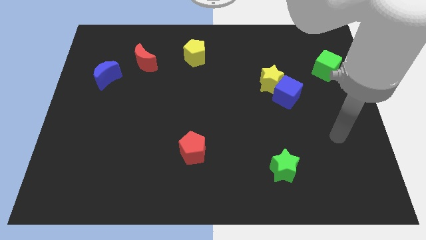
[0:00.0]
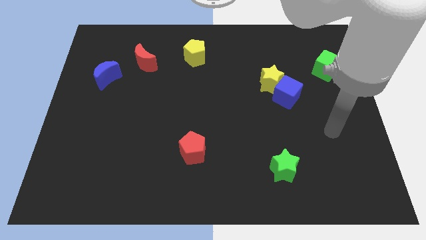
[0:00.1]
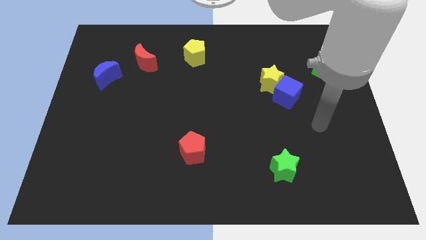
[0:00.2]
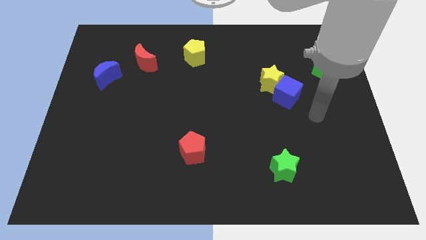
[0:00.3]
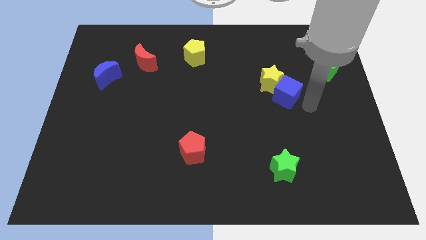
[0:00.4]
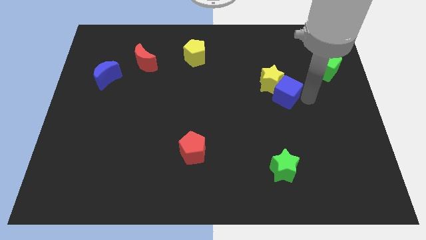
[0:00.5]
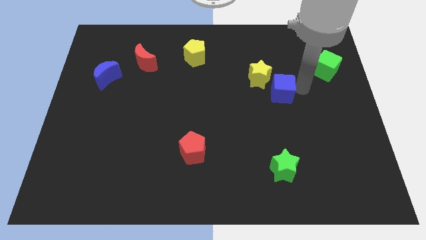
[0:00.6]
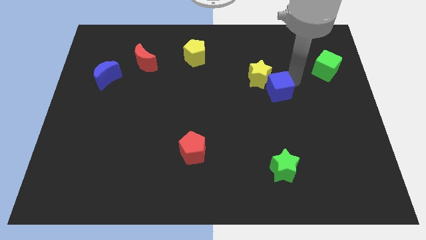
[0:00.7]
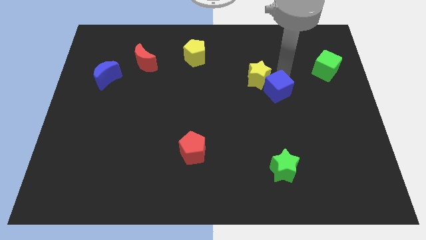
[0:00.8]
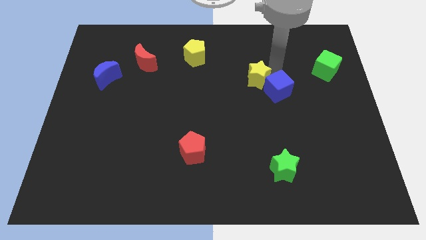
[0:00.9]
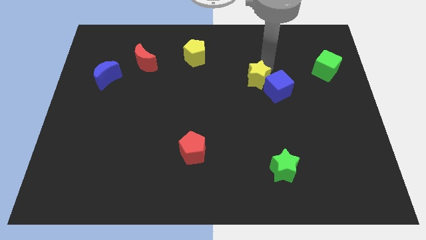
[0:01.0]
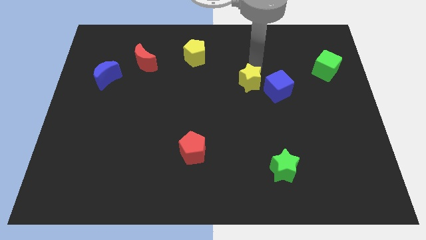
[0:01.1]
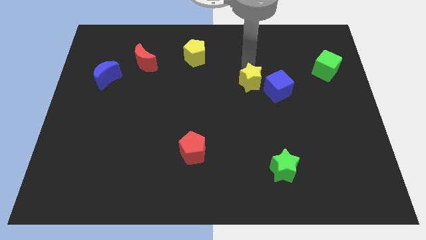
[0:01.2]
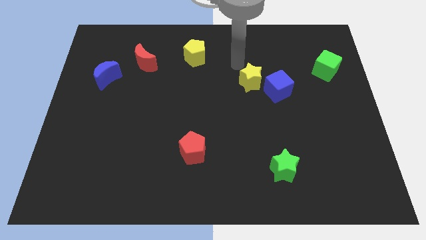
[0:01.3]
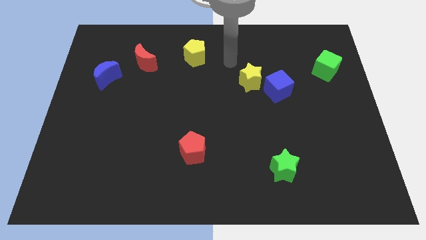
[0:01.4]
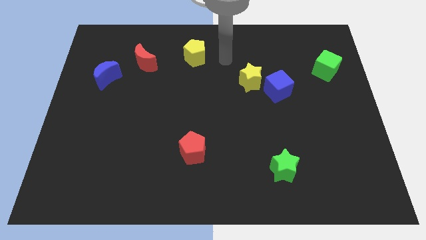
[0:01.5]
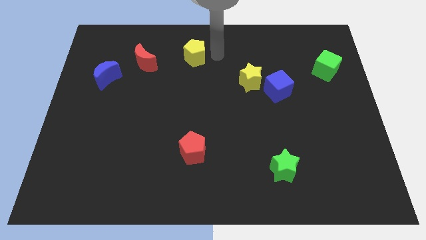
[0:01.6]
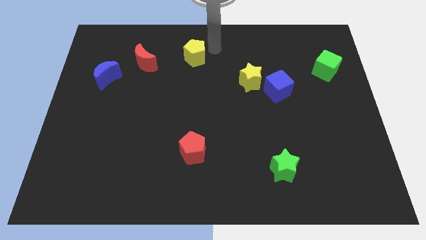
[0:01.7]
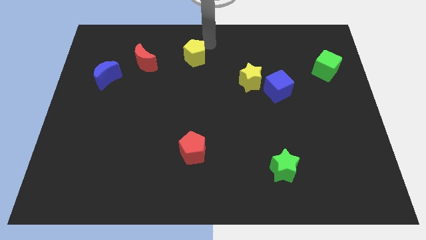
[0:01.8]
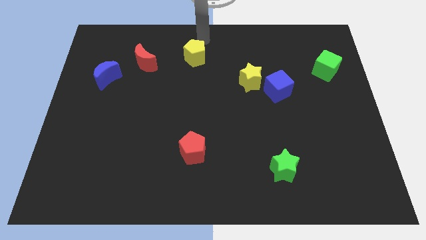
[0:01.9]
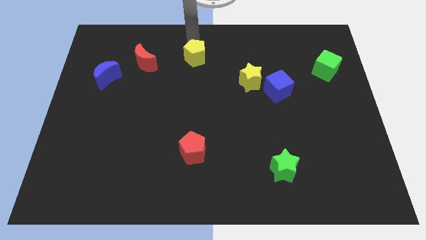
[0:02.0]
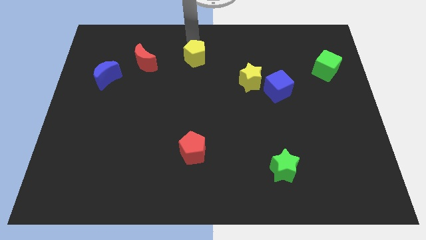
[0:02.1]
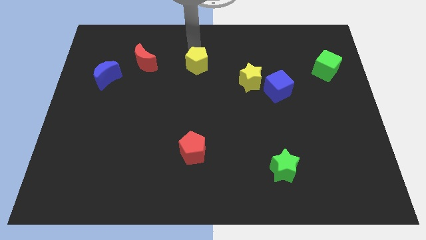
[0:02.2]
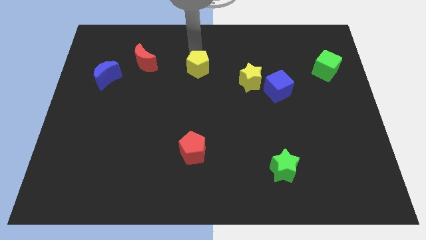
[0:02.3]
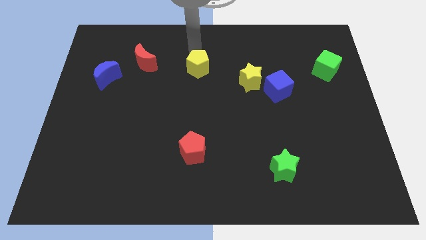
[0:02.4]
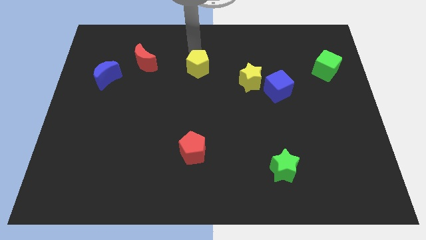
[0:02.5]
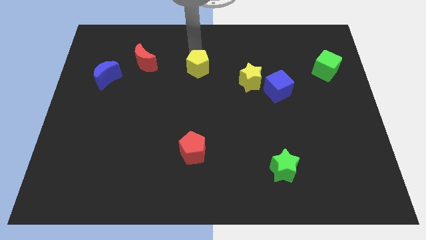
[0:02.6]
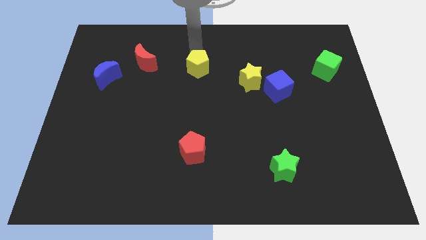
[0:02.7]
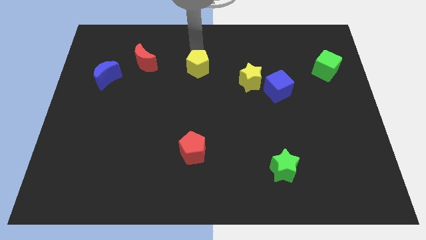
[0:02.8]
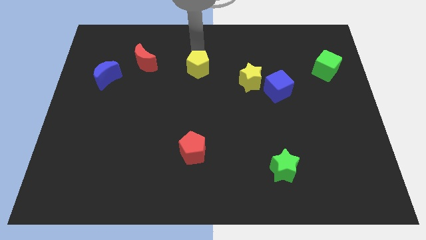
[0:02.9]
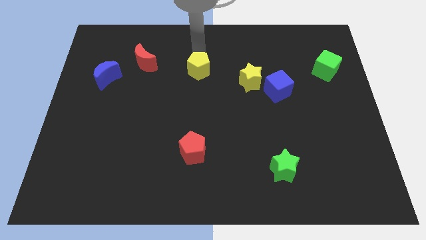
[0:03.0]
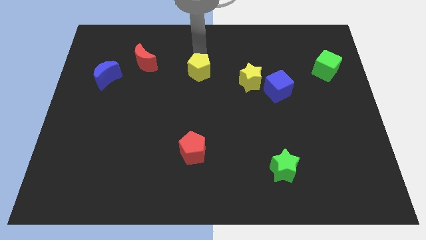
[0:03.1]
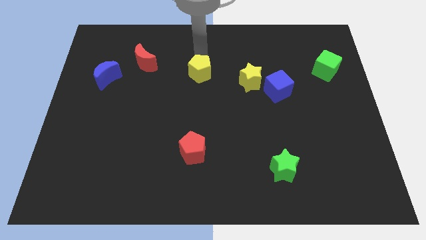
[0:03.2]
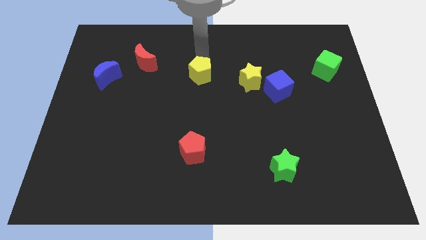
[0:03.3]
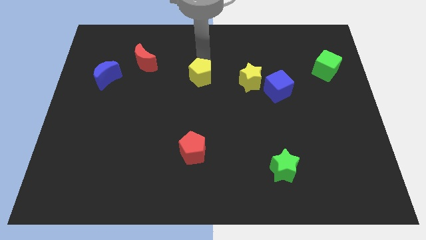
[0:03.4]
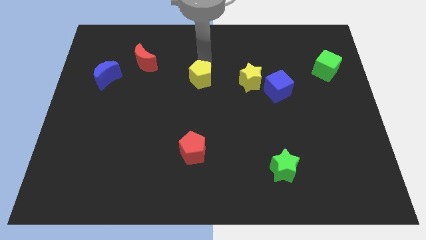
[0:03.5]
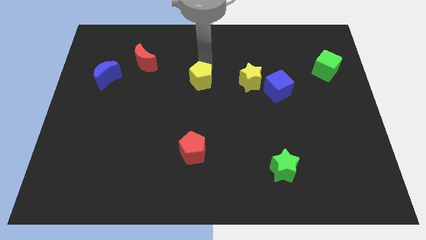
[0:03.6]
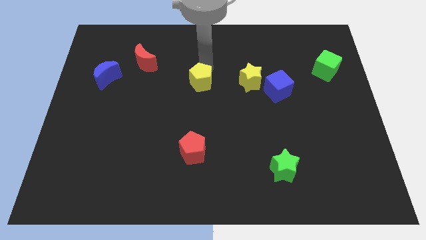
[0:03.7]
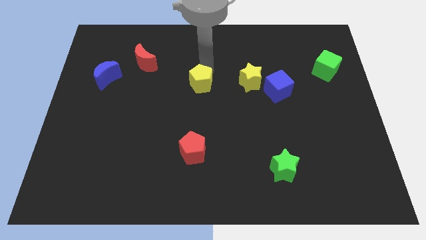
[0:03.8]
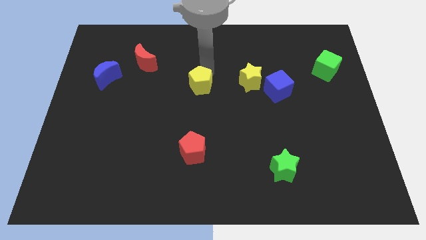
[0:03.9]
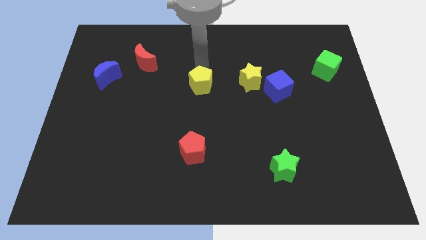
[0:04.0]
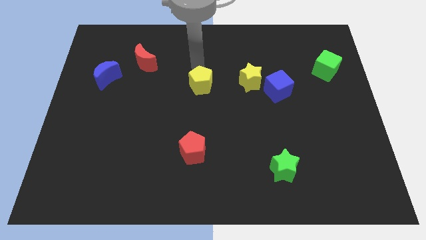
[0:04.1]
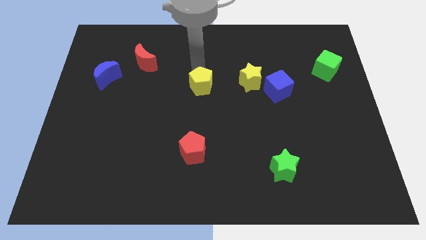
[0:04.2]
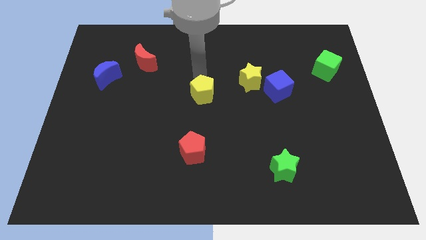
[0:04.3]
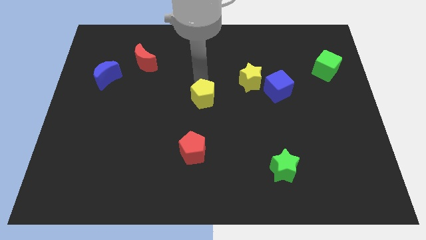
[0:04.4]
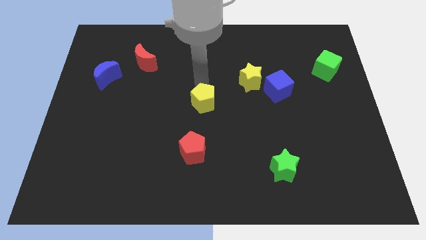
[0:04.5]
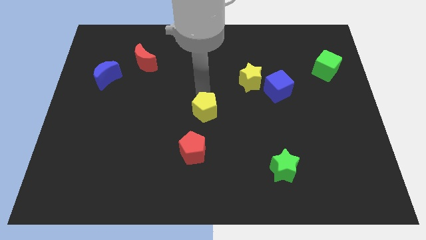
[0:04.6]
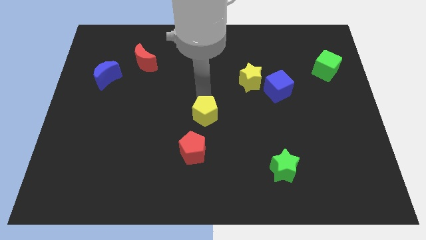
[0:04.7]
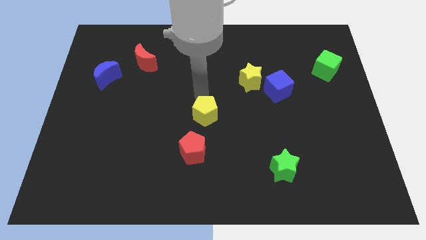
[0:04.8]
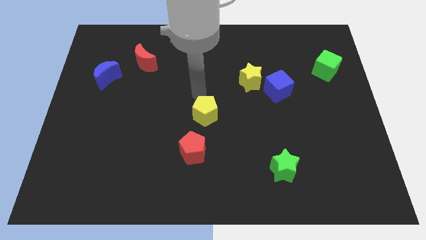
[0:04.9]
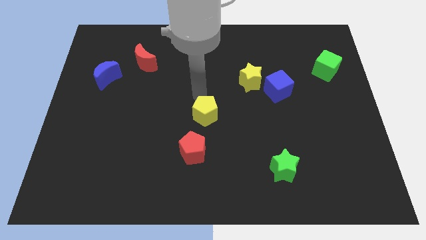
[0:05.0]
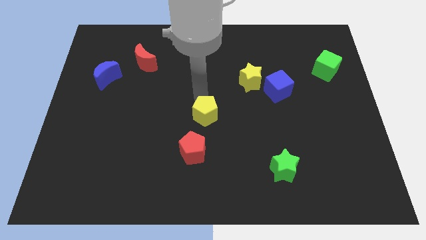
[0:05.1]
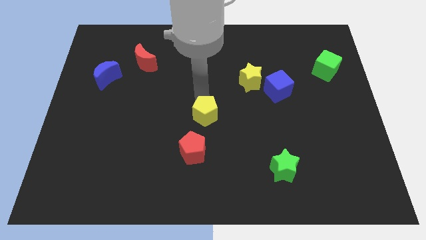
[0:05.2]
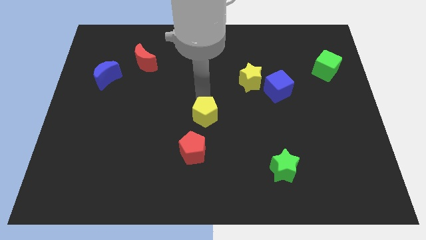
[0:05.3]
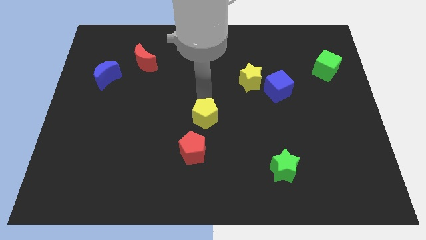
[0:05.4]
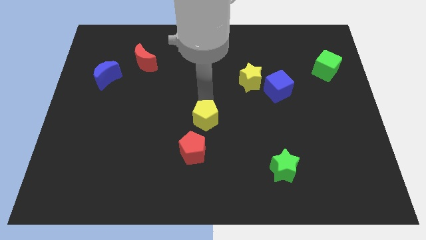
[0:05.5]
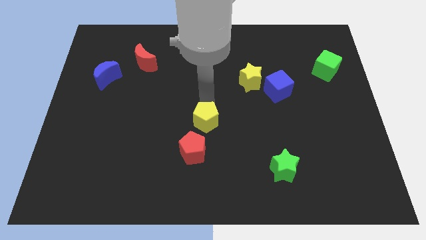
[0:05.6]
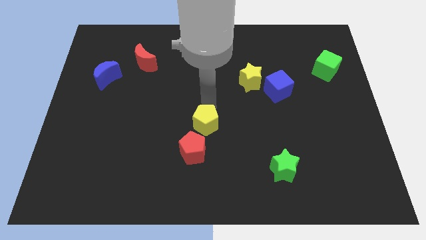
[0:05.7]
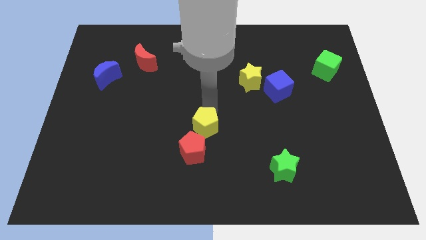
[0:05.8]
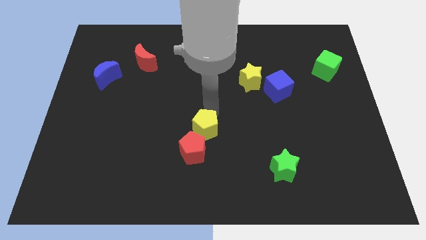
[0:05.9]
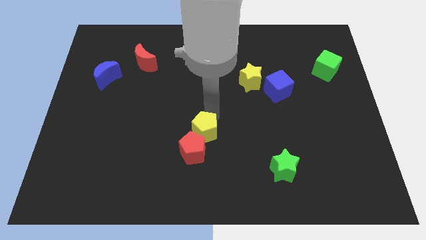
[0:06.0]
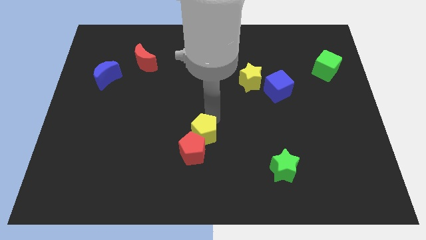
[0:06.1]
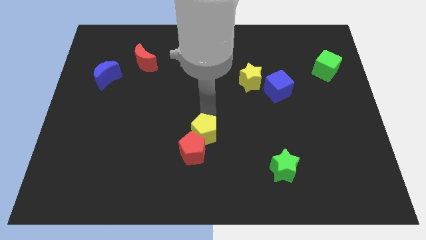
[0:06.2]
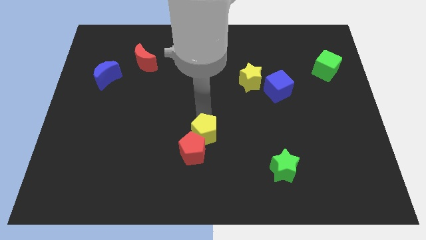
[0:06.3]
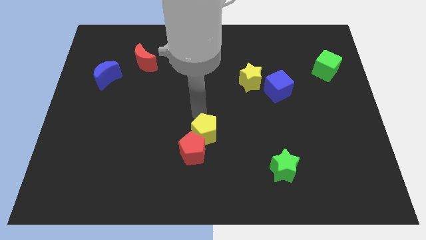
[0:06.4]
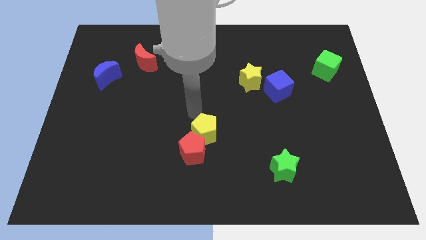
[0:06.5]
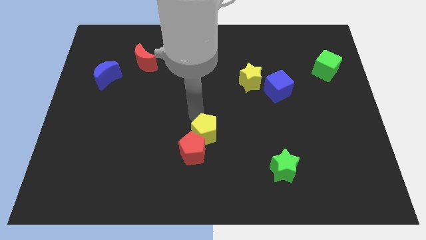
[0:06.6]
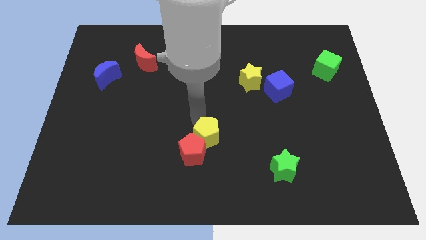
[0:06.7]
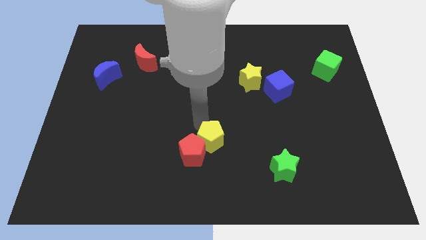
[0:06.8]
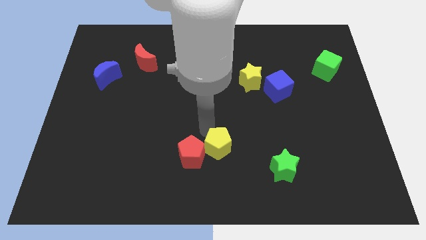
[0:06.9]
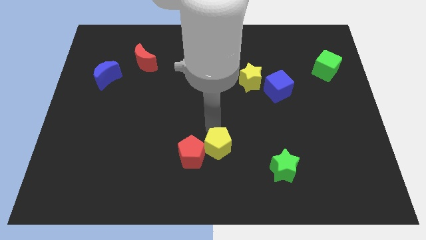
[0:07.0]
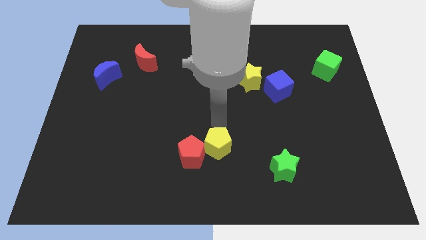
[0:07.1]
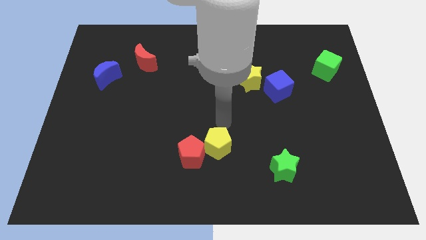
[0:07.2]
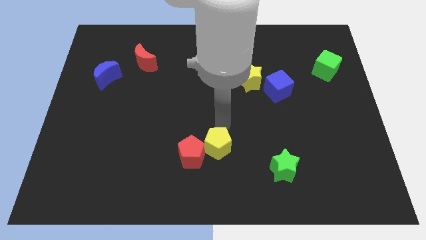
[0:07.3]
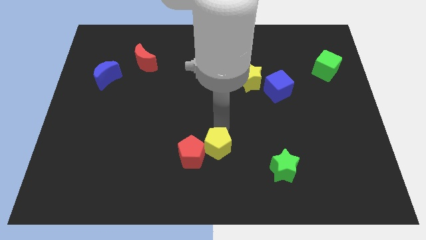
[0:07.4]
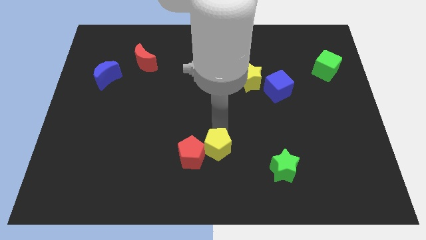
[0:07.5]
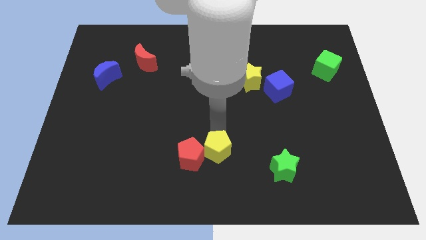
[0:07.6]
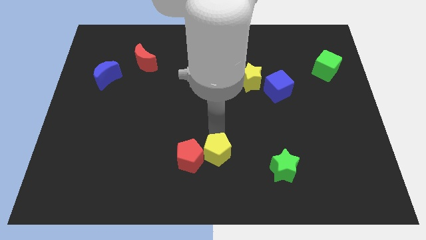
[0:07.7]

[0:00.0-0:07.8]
move the yellow pentagon to the bottom side

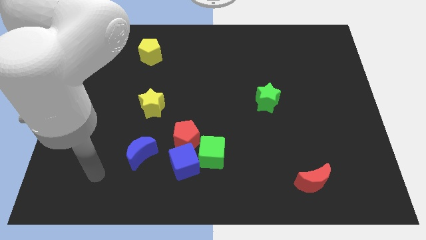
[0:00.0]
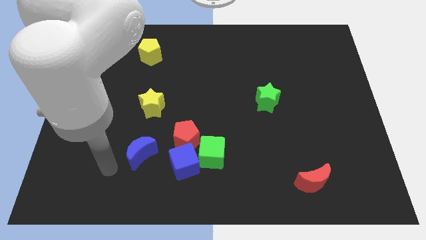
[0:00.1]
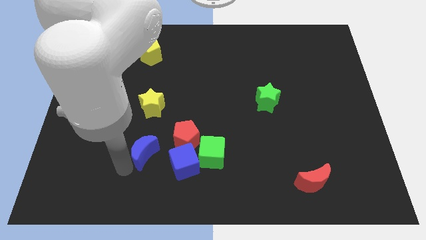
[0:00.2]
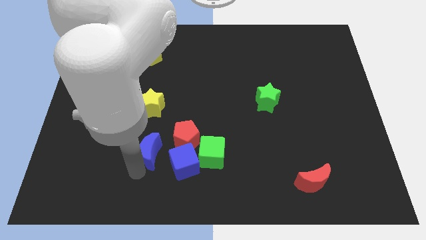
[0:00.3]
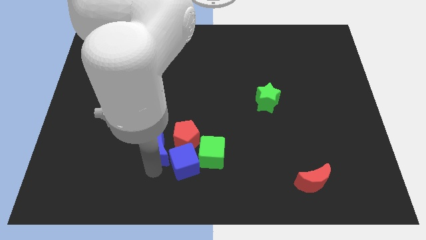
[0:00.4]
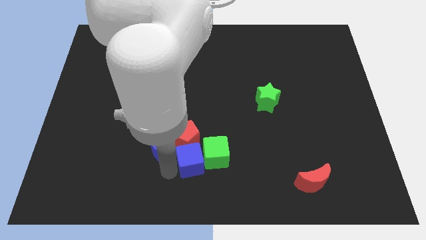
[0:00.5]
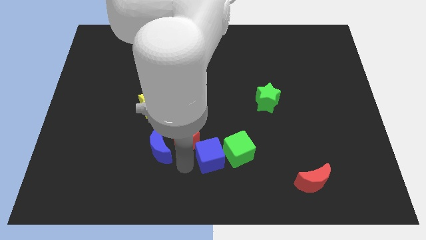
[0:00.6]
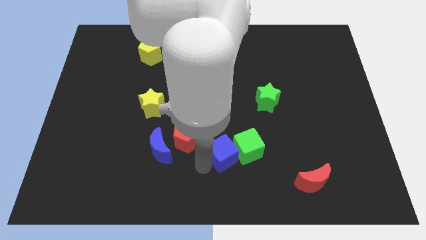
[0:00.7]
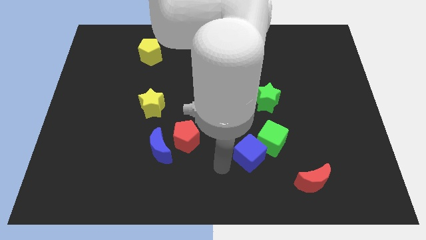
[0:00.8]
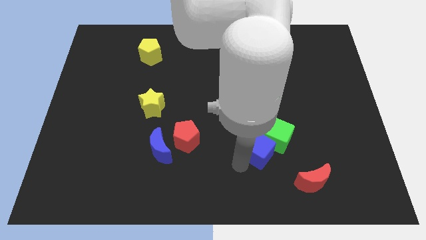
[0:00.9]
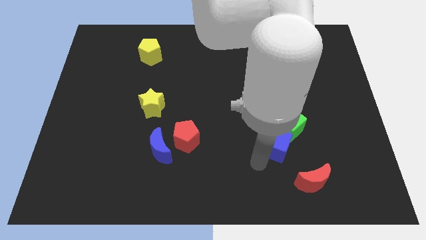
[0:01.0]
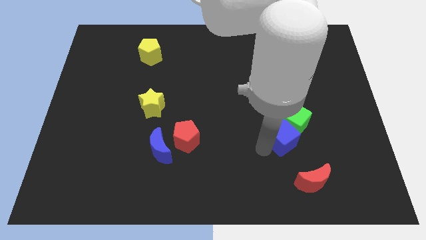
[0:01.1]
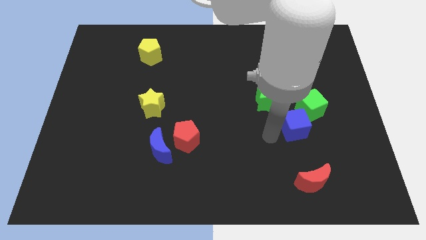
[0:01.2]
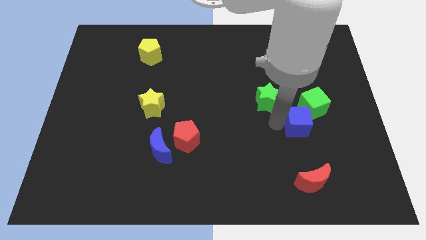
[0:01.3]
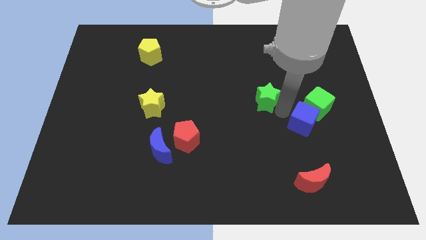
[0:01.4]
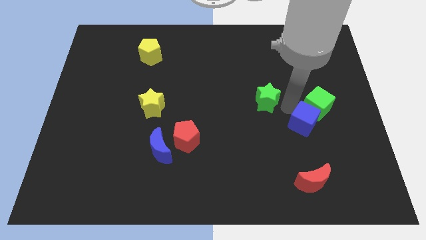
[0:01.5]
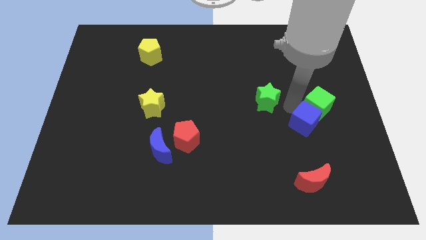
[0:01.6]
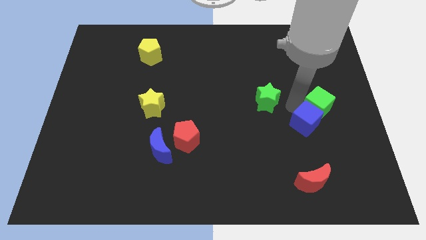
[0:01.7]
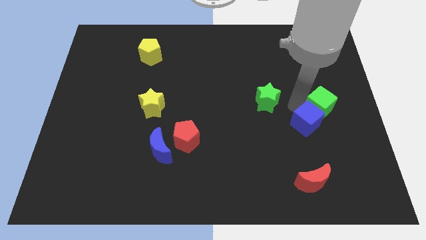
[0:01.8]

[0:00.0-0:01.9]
put the green cube to the right side of the board
